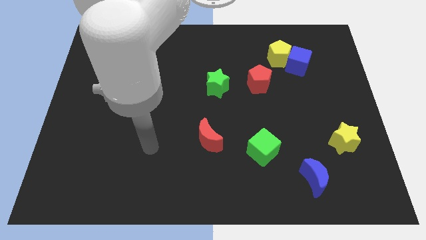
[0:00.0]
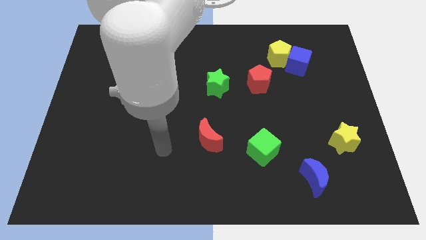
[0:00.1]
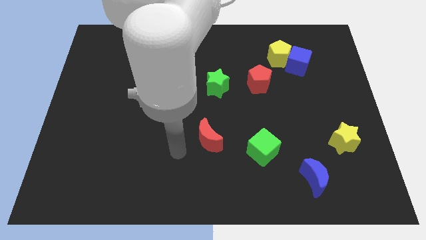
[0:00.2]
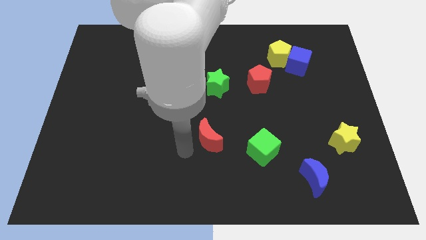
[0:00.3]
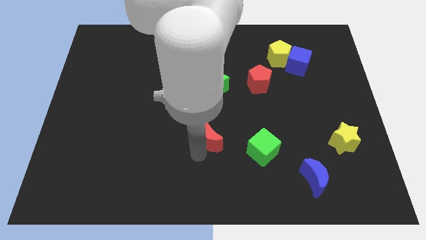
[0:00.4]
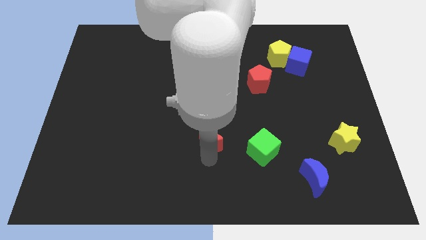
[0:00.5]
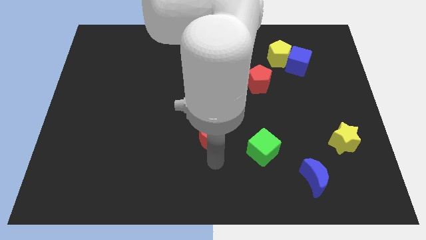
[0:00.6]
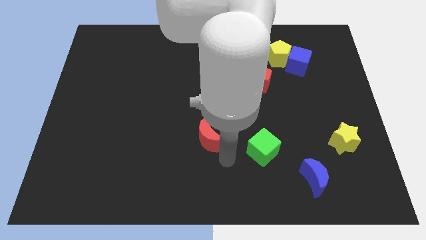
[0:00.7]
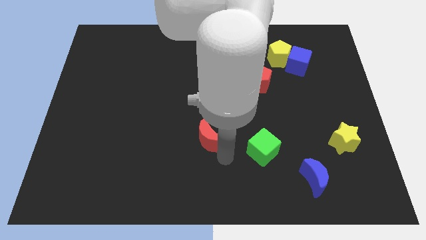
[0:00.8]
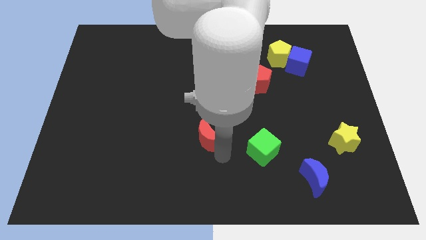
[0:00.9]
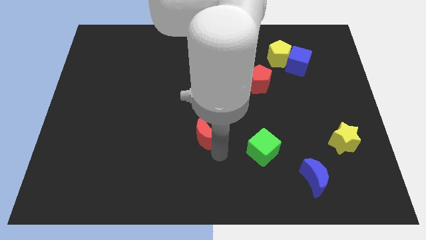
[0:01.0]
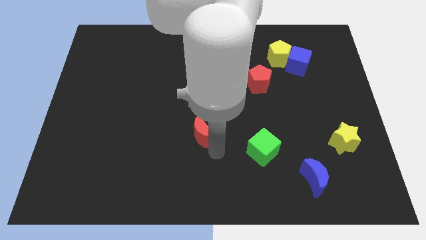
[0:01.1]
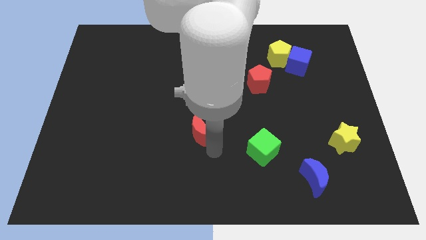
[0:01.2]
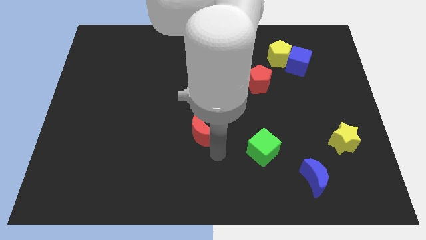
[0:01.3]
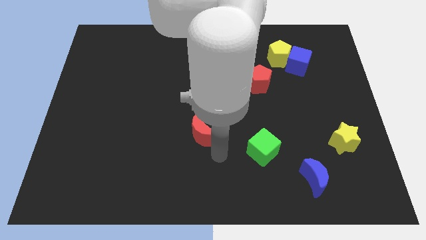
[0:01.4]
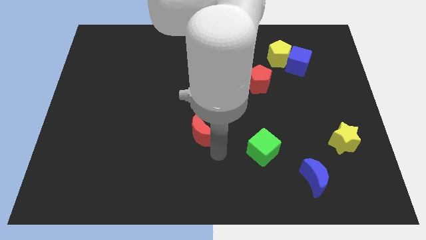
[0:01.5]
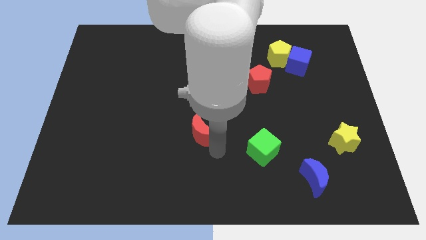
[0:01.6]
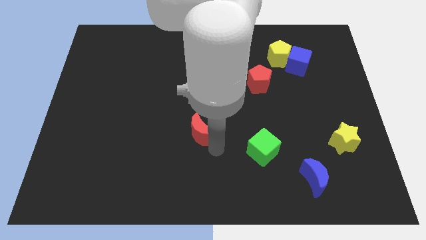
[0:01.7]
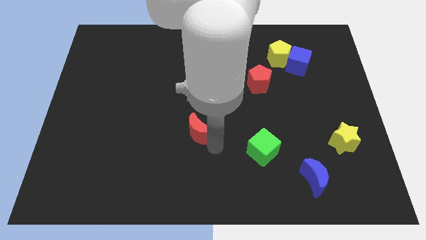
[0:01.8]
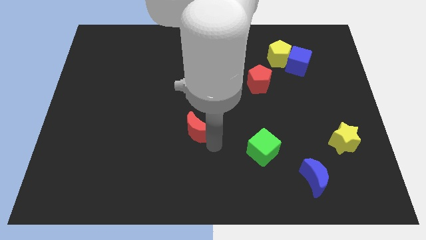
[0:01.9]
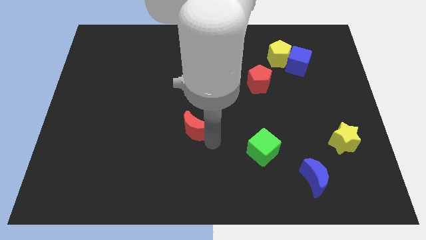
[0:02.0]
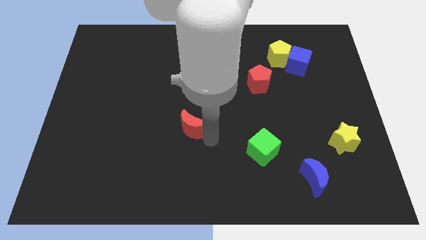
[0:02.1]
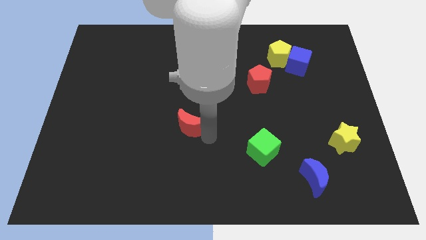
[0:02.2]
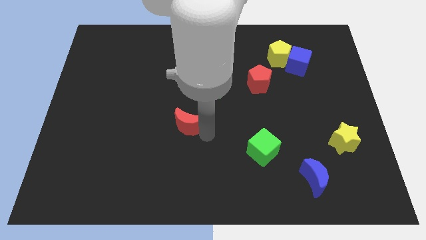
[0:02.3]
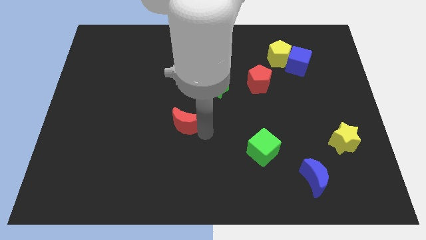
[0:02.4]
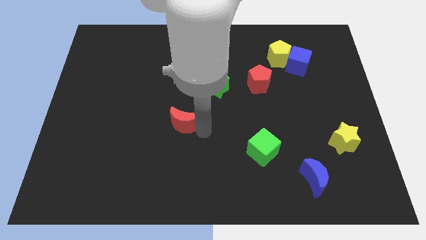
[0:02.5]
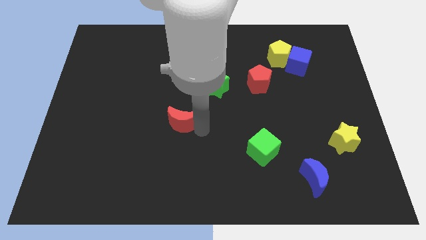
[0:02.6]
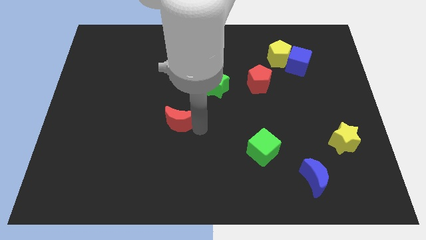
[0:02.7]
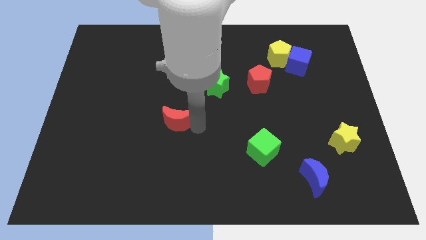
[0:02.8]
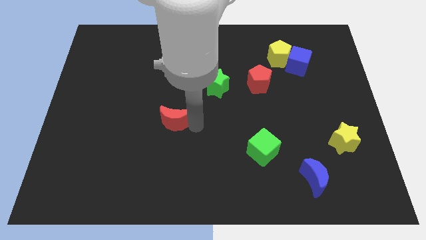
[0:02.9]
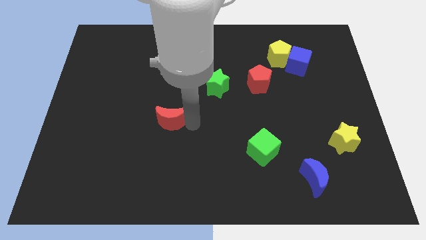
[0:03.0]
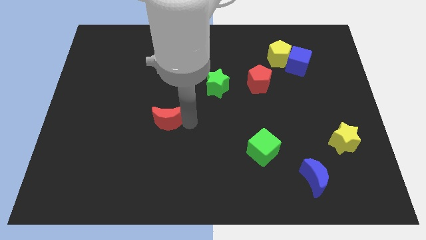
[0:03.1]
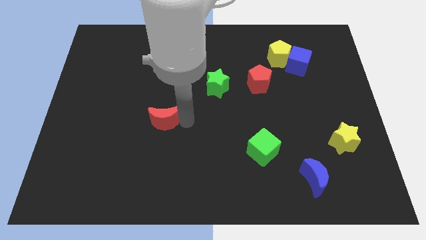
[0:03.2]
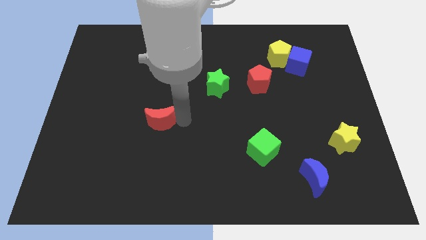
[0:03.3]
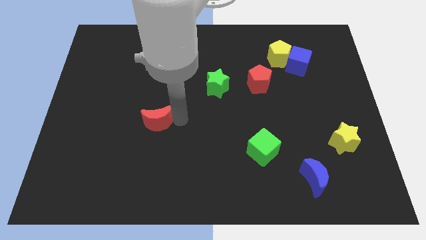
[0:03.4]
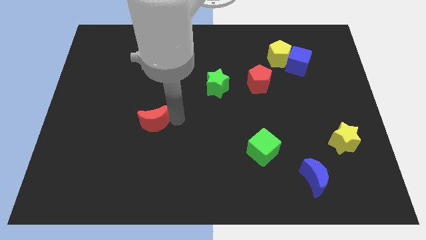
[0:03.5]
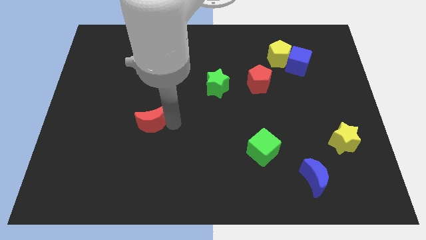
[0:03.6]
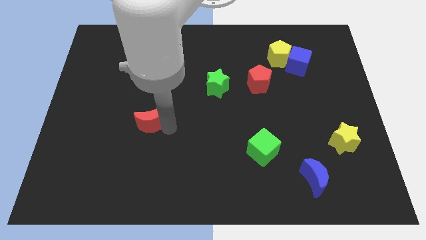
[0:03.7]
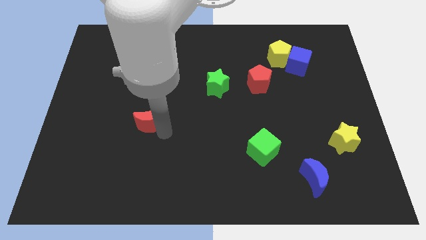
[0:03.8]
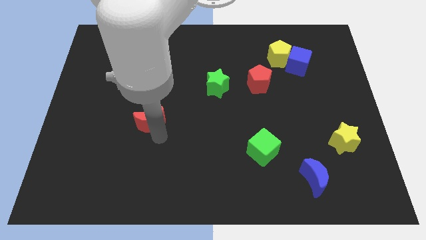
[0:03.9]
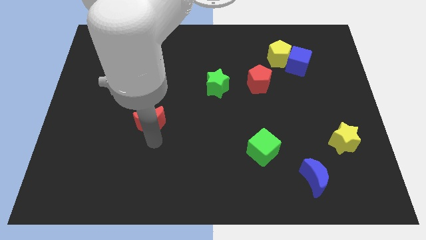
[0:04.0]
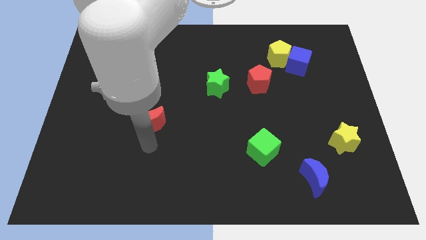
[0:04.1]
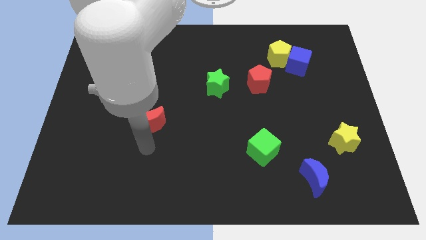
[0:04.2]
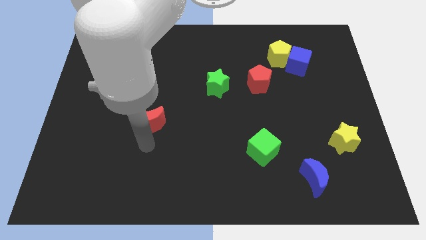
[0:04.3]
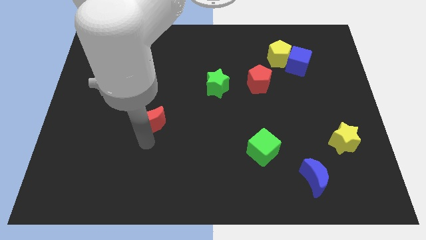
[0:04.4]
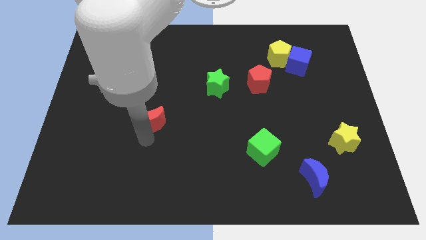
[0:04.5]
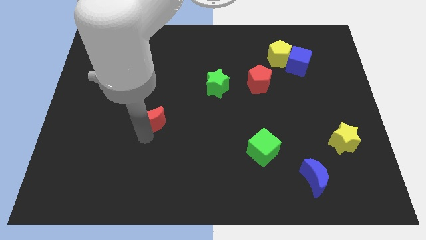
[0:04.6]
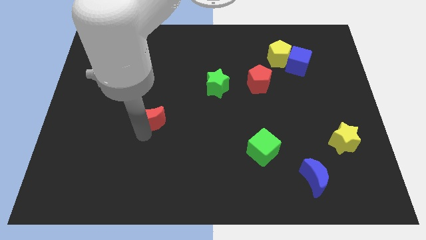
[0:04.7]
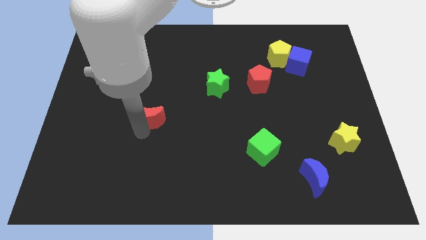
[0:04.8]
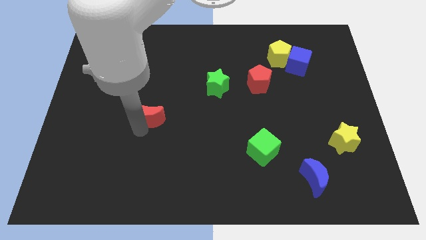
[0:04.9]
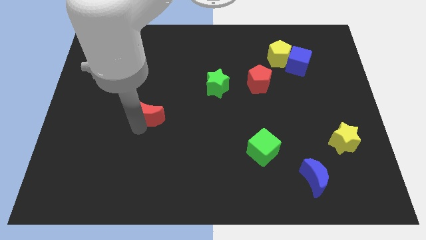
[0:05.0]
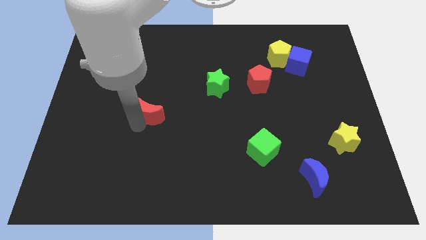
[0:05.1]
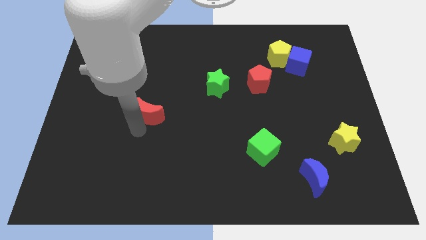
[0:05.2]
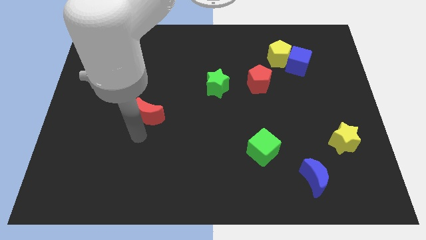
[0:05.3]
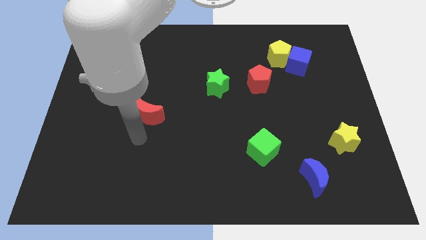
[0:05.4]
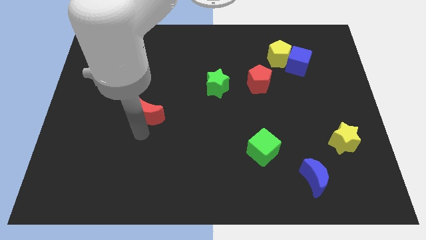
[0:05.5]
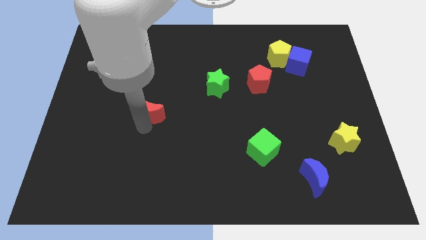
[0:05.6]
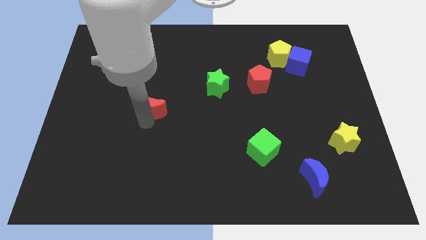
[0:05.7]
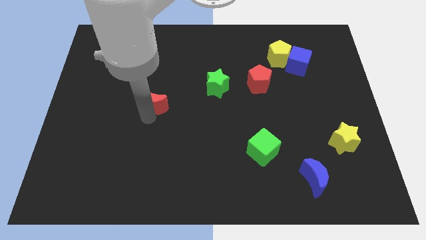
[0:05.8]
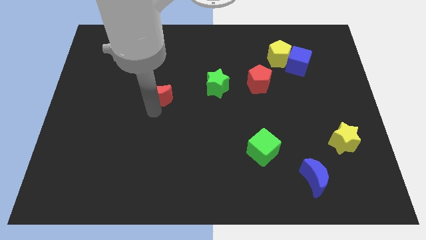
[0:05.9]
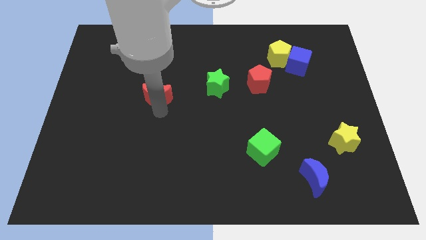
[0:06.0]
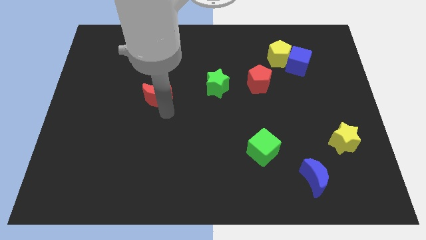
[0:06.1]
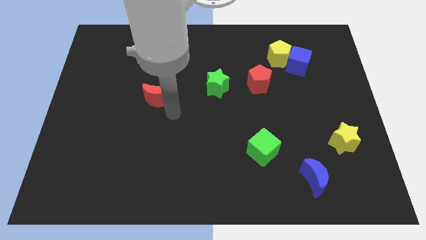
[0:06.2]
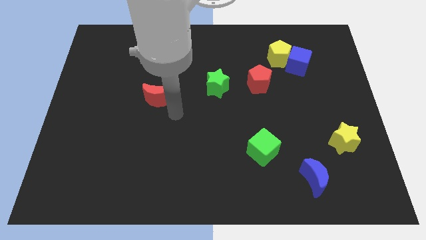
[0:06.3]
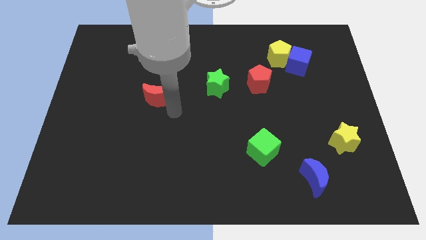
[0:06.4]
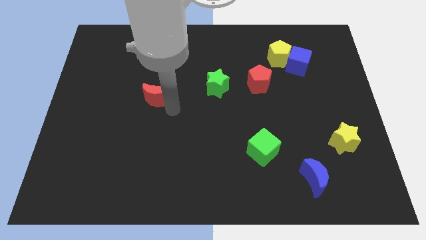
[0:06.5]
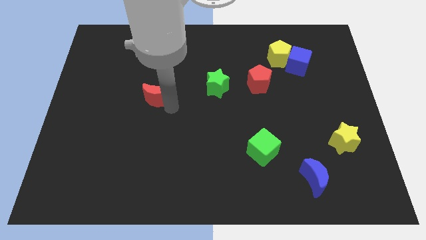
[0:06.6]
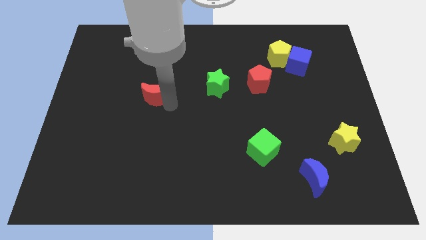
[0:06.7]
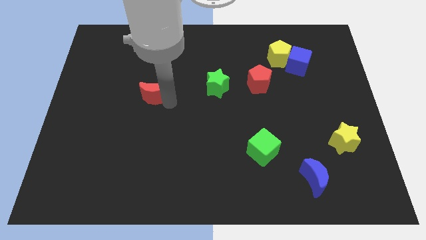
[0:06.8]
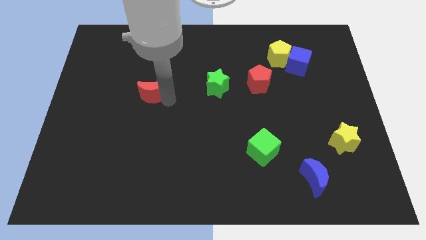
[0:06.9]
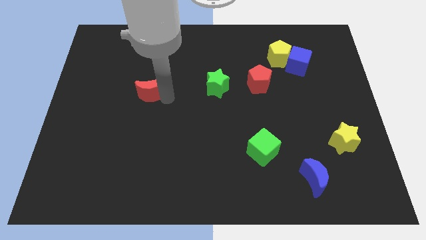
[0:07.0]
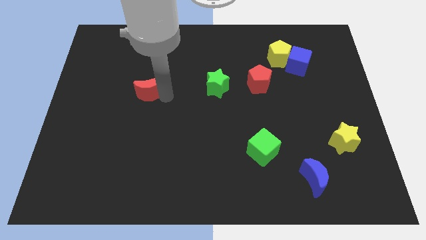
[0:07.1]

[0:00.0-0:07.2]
slide the red moon upwards and then to the left

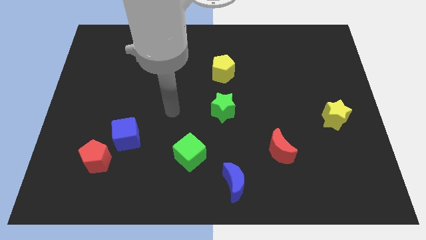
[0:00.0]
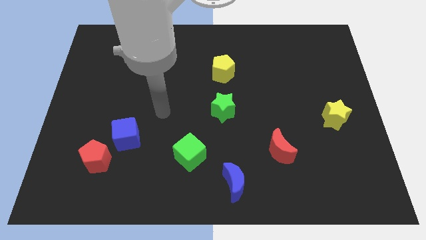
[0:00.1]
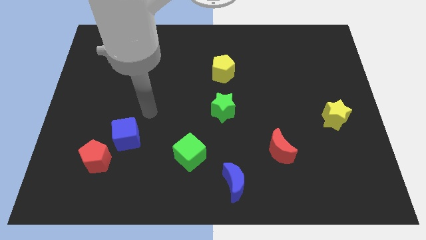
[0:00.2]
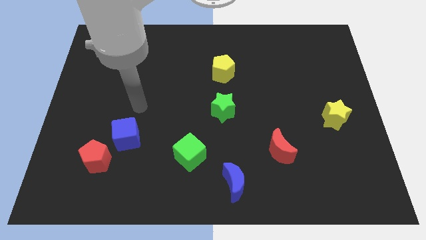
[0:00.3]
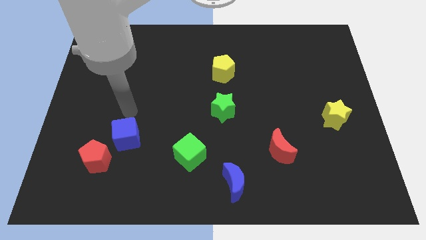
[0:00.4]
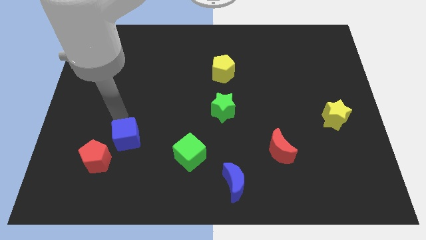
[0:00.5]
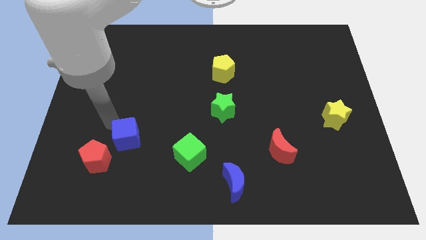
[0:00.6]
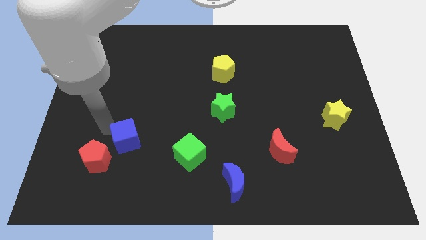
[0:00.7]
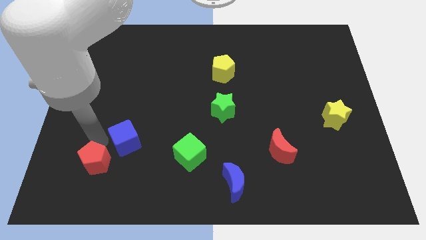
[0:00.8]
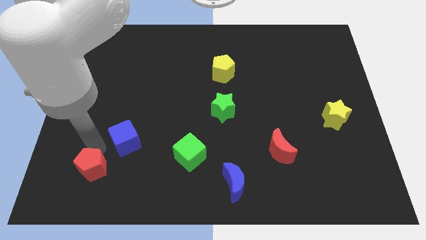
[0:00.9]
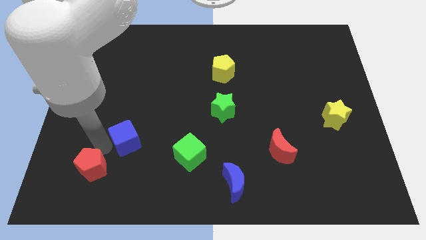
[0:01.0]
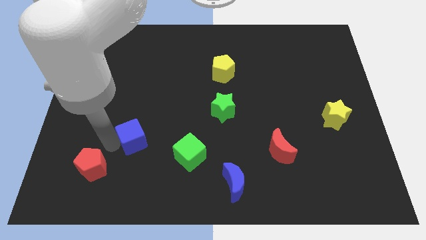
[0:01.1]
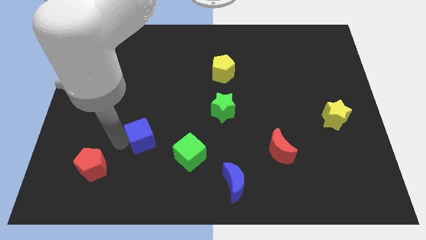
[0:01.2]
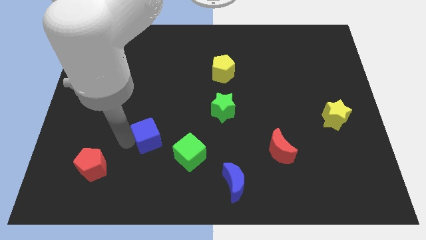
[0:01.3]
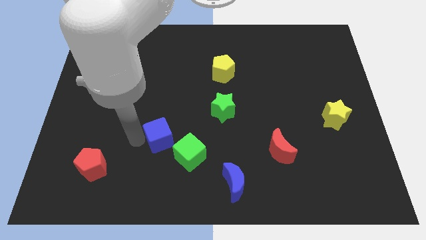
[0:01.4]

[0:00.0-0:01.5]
push the blue cube right a little bit
